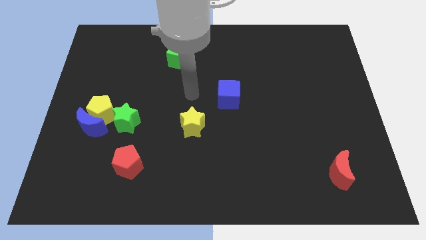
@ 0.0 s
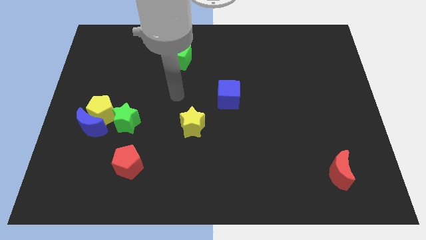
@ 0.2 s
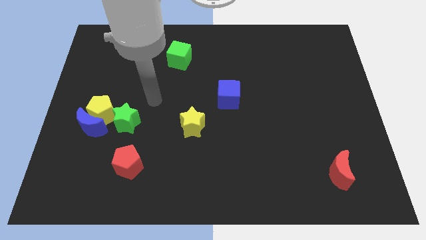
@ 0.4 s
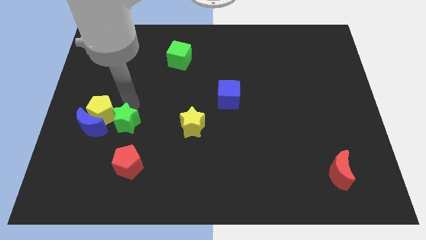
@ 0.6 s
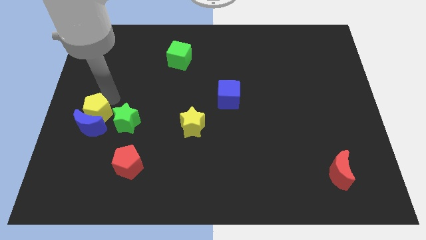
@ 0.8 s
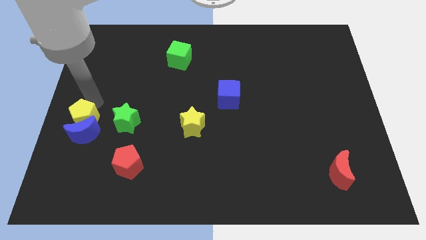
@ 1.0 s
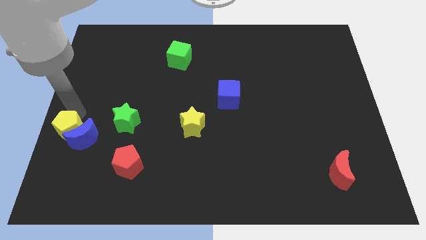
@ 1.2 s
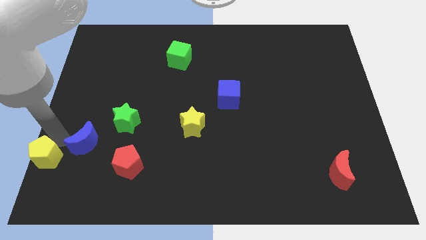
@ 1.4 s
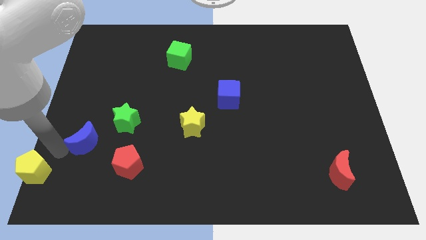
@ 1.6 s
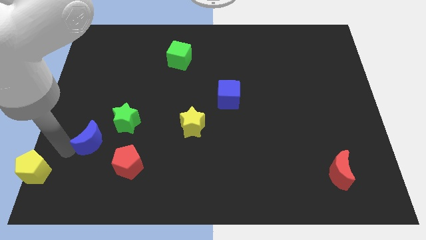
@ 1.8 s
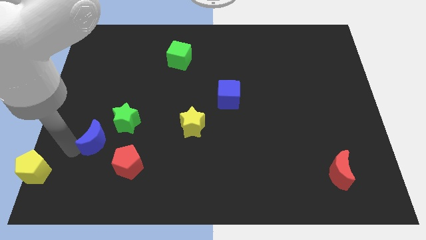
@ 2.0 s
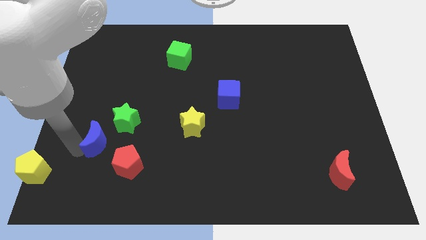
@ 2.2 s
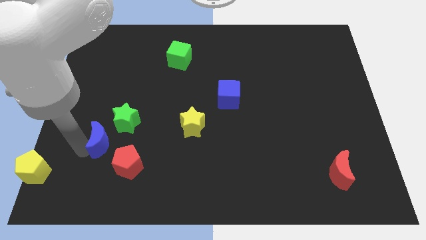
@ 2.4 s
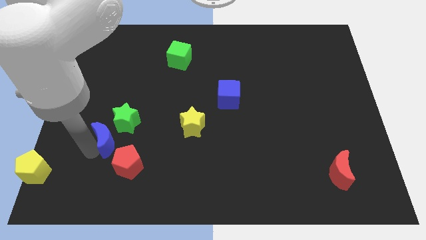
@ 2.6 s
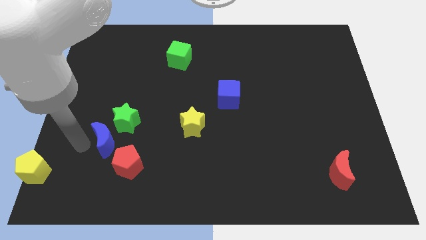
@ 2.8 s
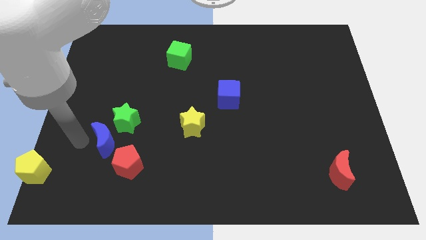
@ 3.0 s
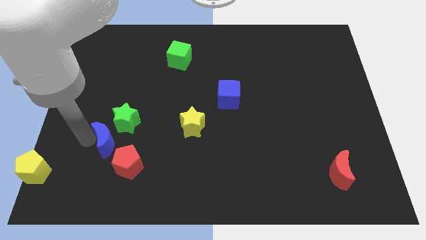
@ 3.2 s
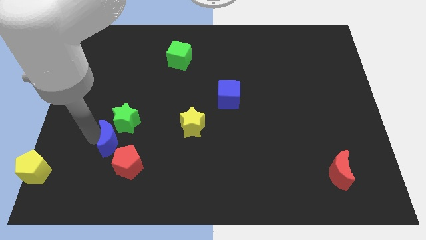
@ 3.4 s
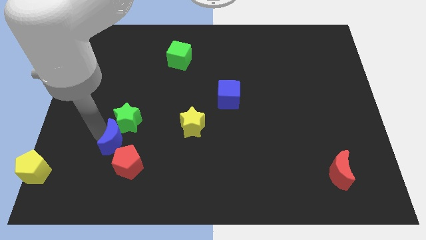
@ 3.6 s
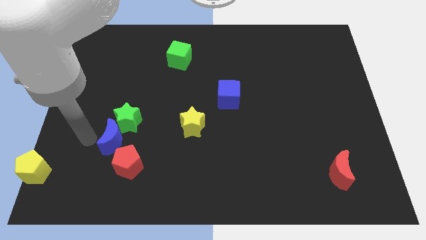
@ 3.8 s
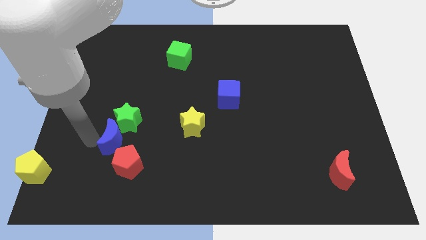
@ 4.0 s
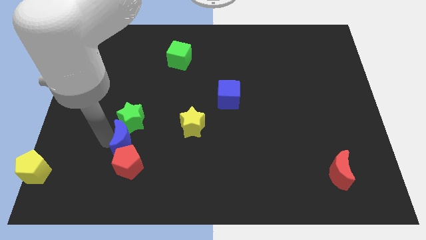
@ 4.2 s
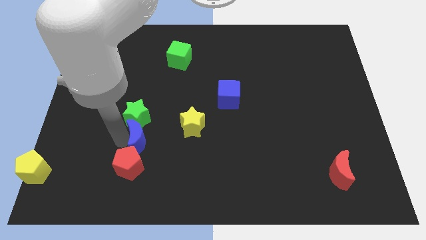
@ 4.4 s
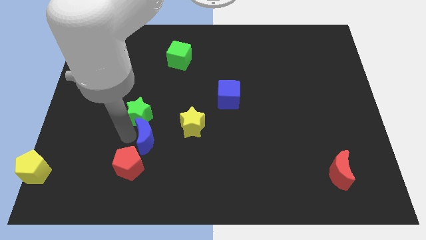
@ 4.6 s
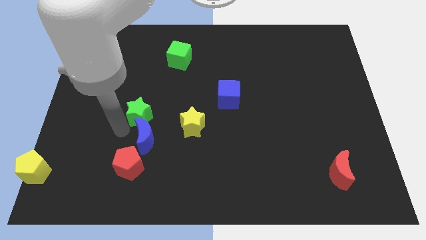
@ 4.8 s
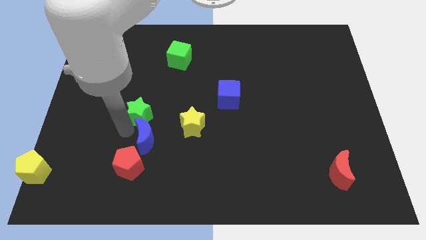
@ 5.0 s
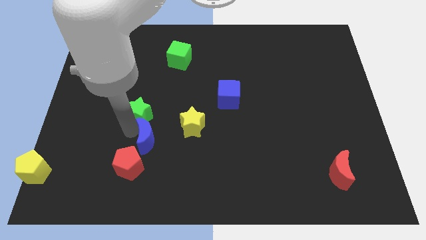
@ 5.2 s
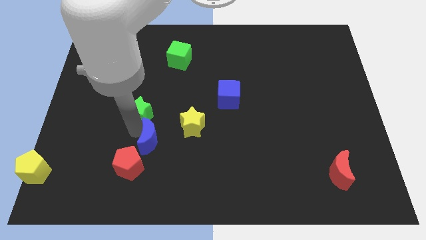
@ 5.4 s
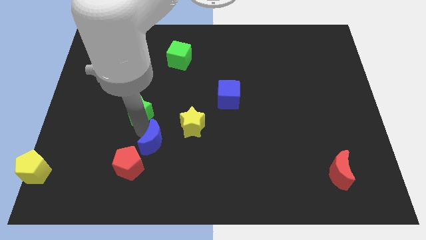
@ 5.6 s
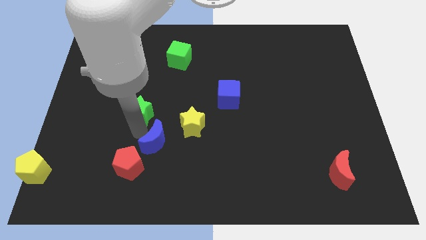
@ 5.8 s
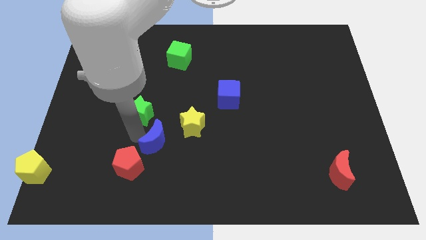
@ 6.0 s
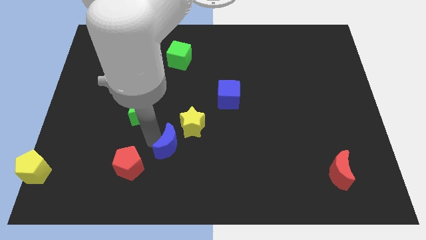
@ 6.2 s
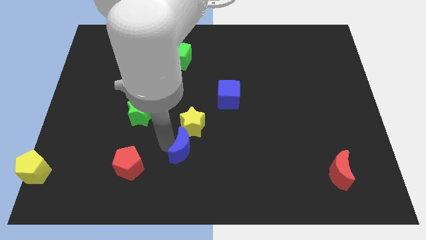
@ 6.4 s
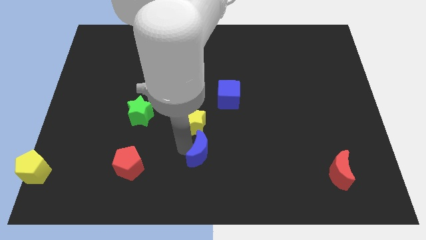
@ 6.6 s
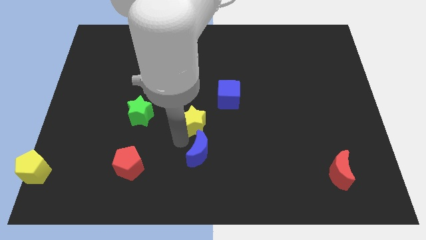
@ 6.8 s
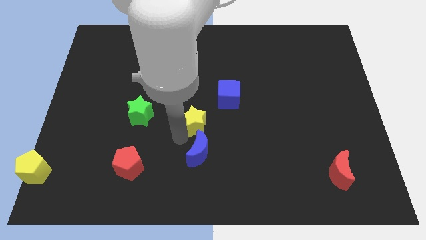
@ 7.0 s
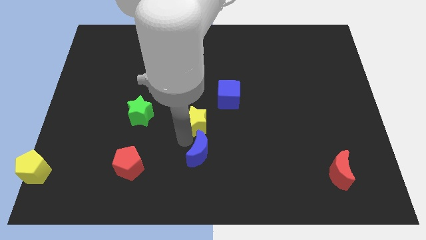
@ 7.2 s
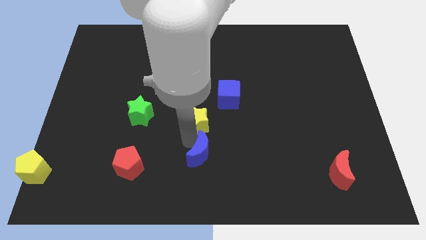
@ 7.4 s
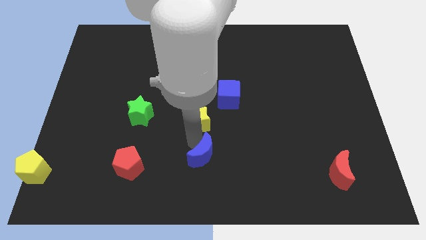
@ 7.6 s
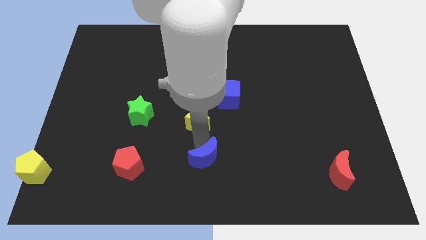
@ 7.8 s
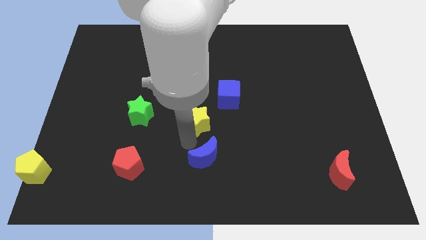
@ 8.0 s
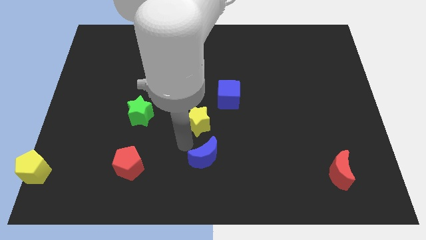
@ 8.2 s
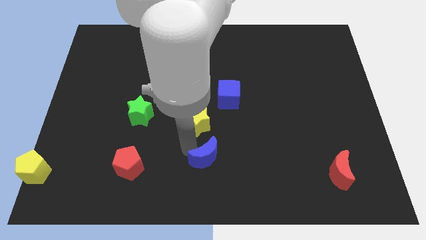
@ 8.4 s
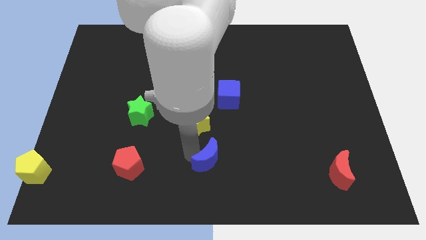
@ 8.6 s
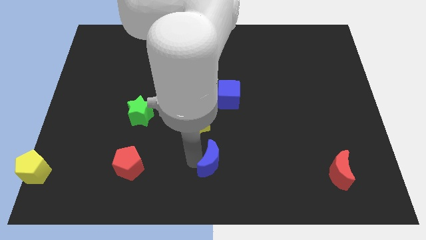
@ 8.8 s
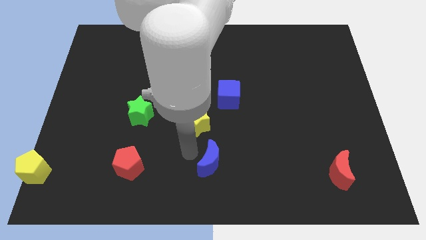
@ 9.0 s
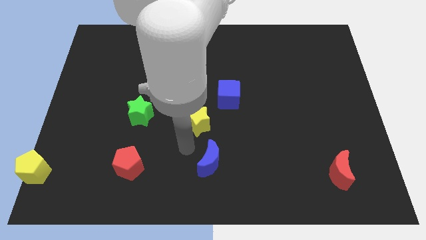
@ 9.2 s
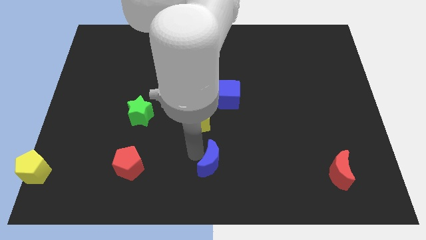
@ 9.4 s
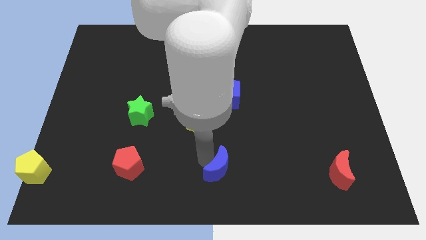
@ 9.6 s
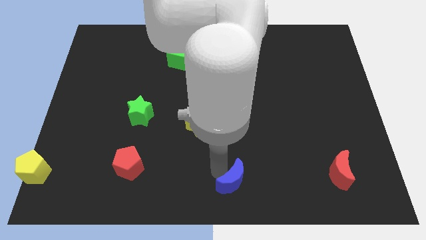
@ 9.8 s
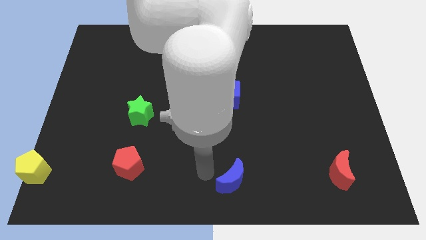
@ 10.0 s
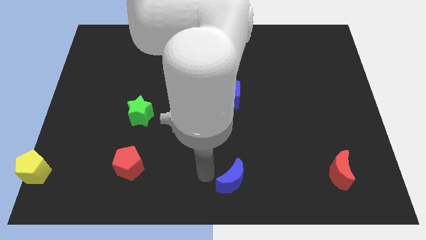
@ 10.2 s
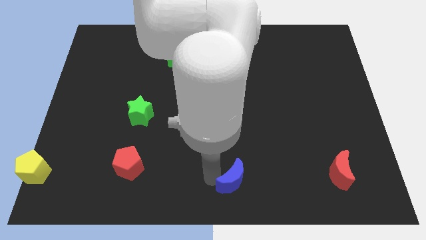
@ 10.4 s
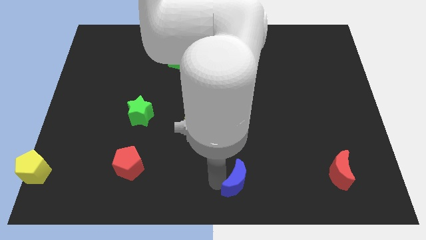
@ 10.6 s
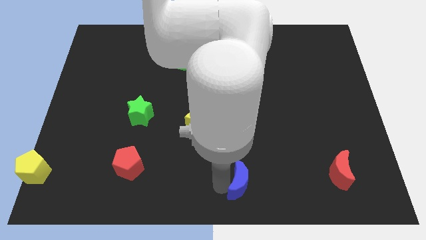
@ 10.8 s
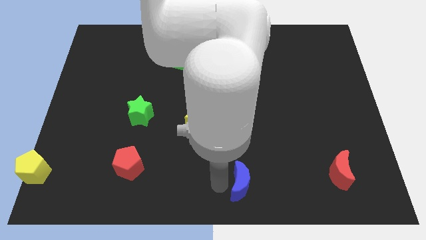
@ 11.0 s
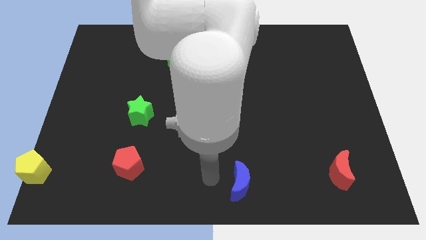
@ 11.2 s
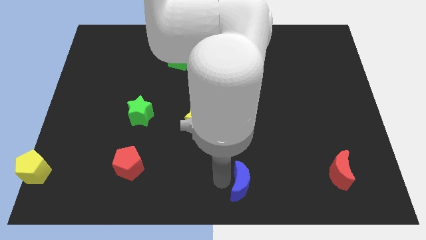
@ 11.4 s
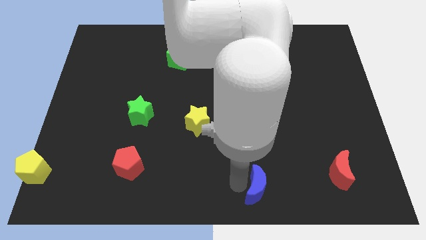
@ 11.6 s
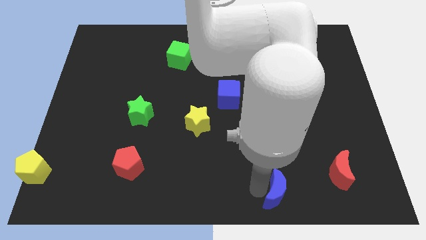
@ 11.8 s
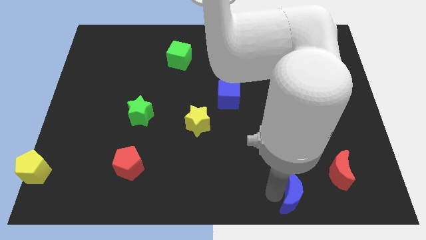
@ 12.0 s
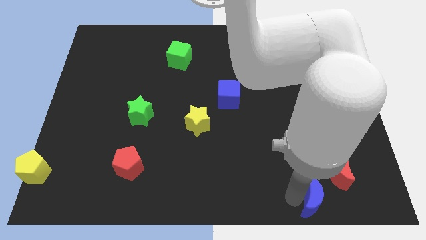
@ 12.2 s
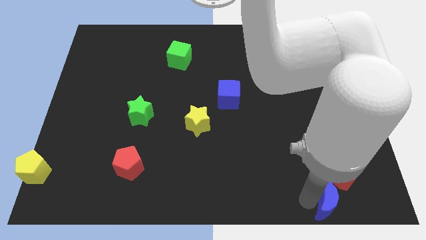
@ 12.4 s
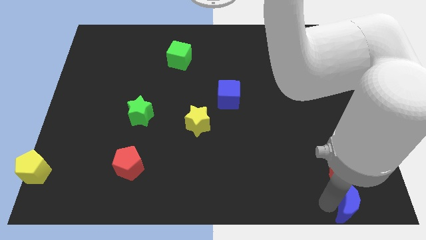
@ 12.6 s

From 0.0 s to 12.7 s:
slide the blue moon to the bottom right
